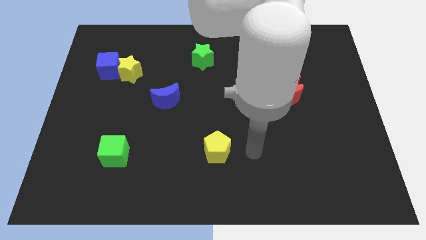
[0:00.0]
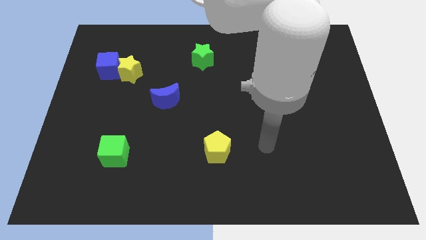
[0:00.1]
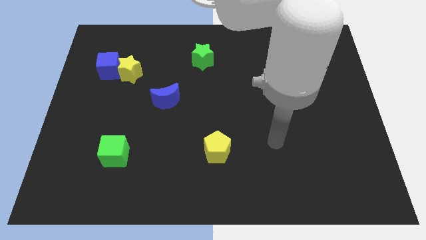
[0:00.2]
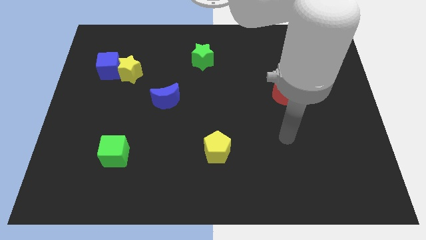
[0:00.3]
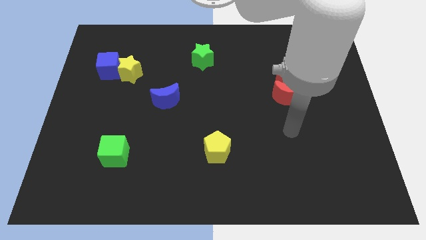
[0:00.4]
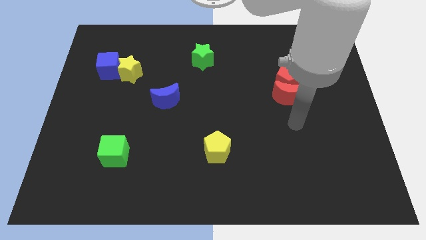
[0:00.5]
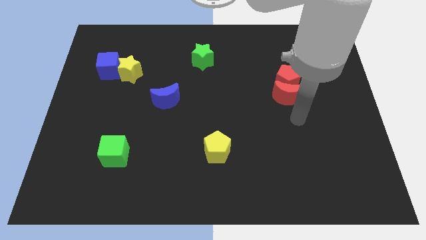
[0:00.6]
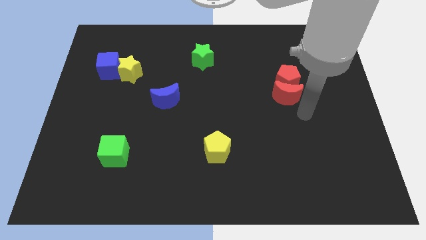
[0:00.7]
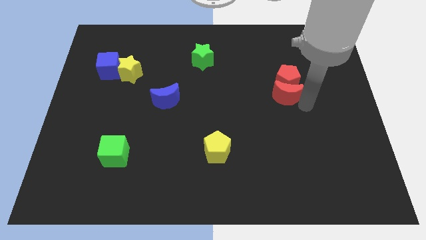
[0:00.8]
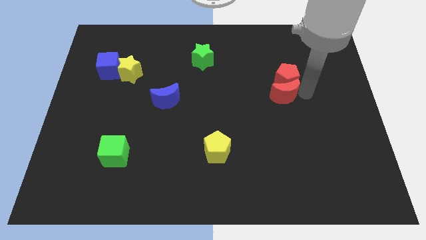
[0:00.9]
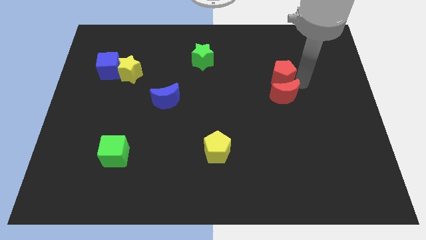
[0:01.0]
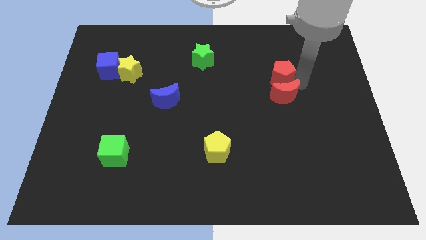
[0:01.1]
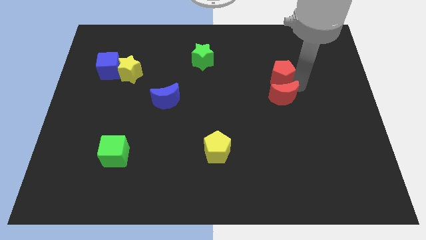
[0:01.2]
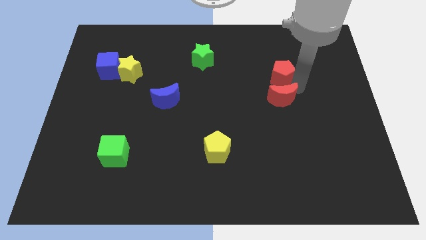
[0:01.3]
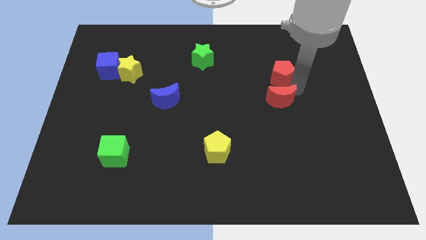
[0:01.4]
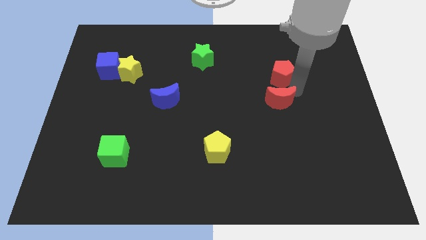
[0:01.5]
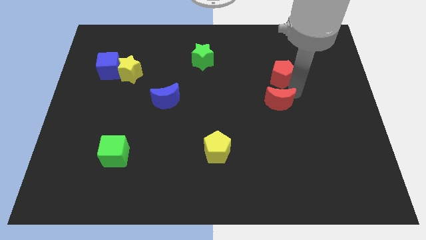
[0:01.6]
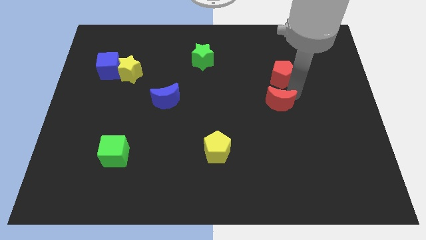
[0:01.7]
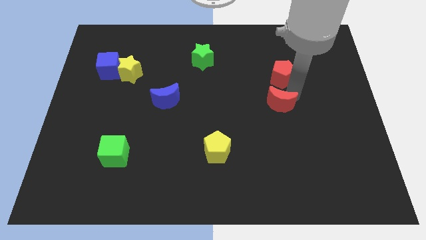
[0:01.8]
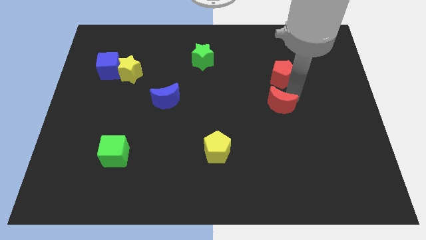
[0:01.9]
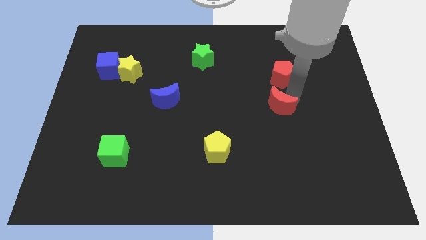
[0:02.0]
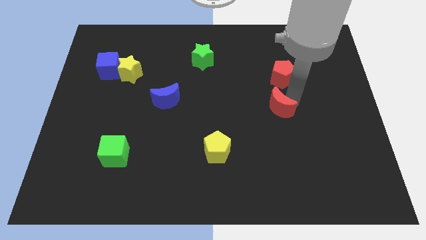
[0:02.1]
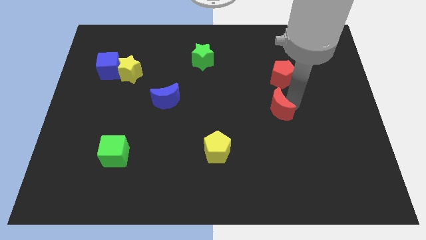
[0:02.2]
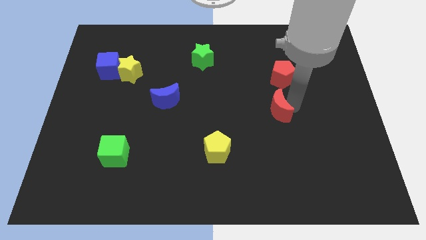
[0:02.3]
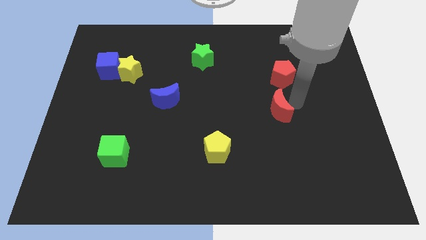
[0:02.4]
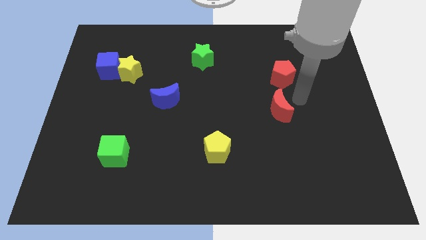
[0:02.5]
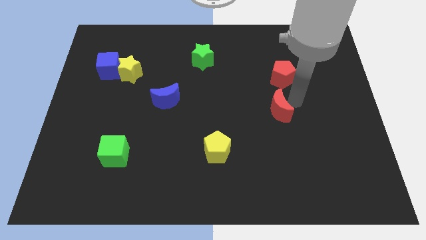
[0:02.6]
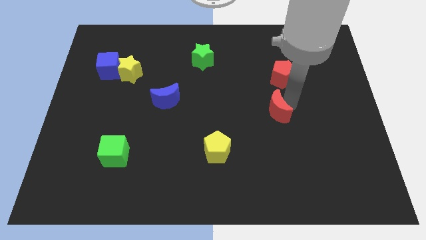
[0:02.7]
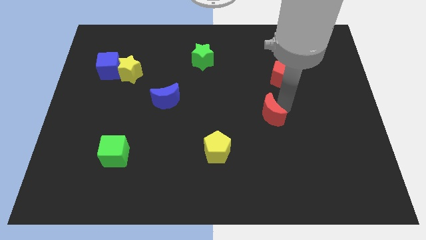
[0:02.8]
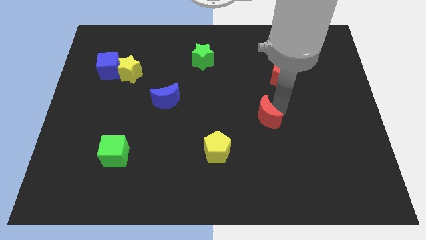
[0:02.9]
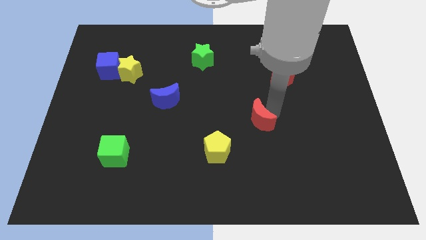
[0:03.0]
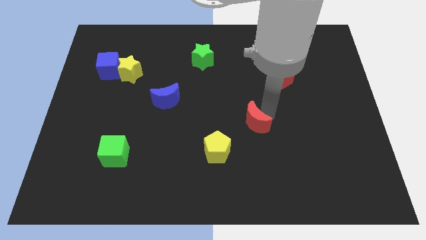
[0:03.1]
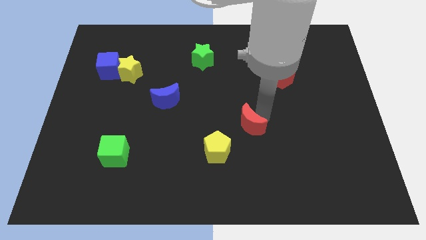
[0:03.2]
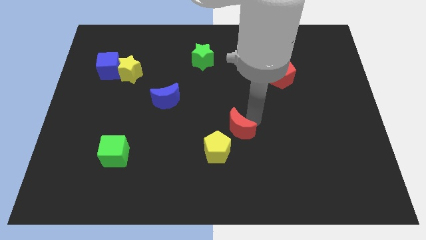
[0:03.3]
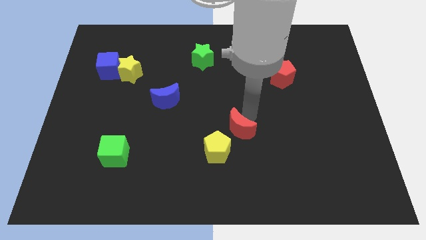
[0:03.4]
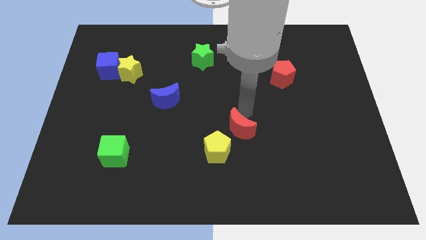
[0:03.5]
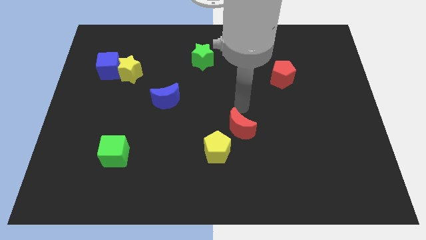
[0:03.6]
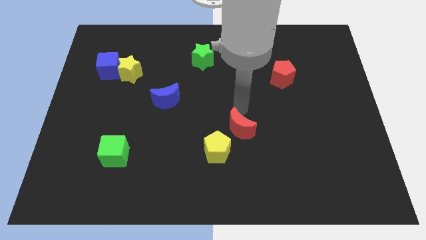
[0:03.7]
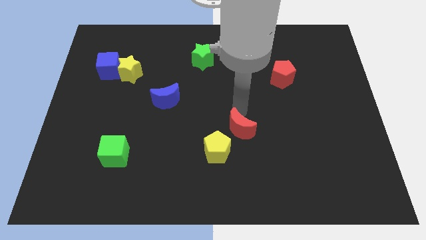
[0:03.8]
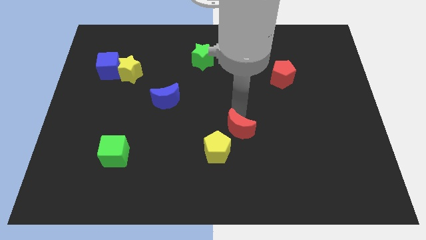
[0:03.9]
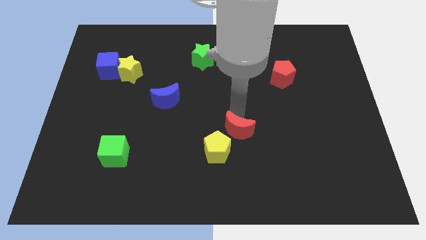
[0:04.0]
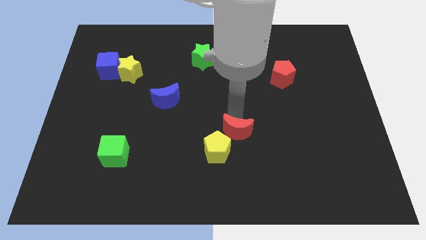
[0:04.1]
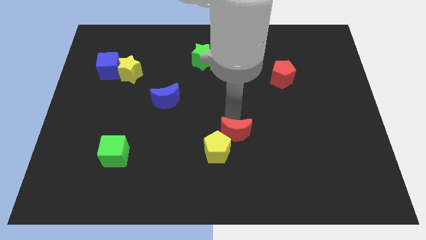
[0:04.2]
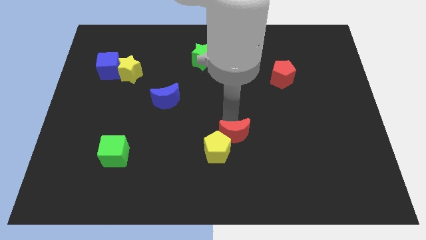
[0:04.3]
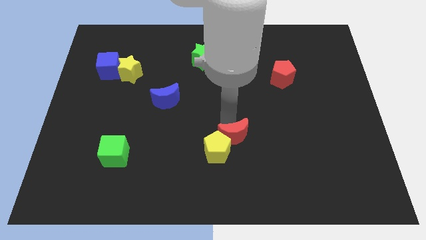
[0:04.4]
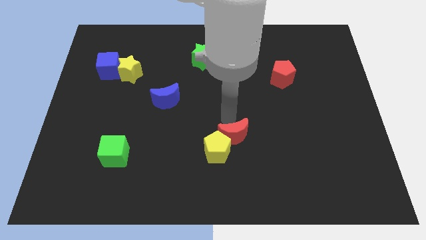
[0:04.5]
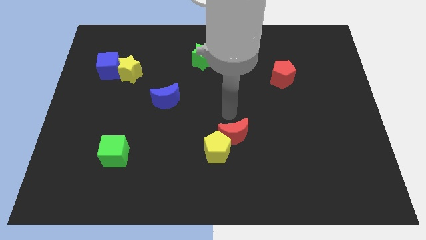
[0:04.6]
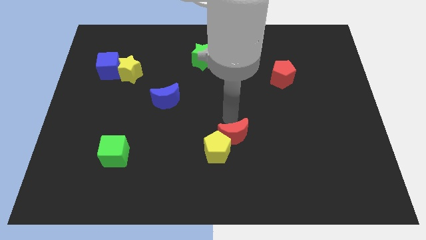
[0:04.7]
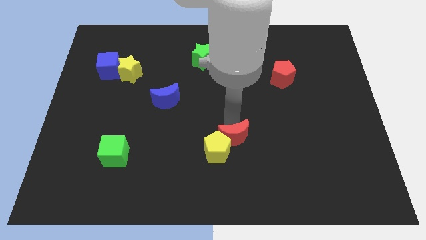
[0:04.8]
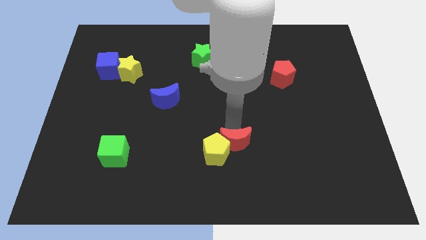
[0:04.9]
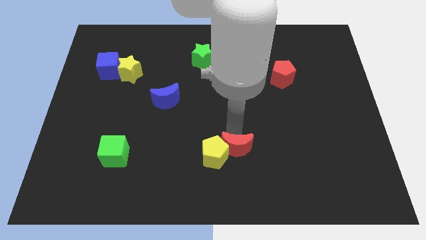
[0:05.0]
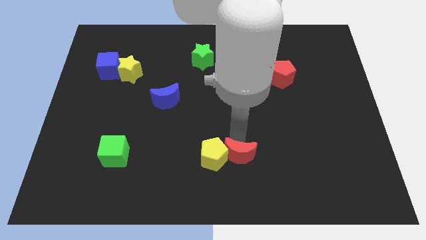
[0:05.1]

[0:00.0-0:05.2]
push the red moon down and to the left diagonally

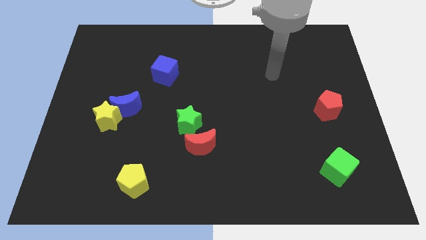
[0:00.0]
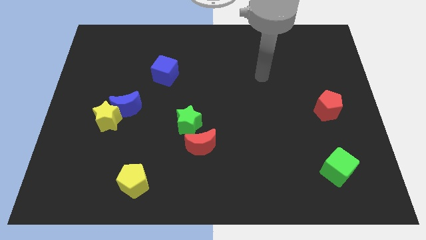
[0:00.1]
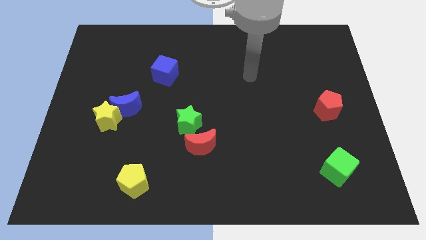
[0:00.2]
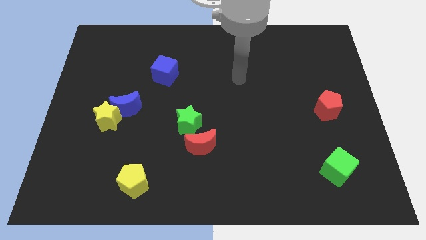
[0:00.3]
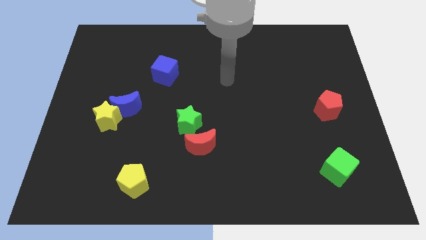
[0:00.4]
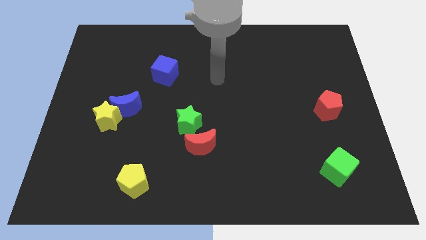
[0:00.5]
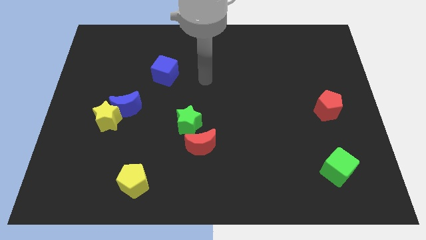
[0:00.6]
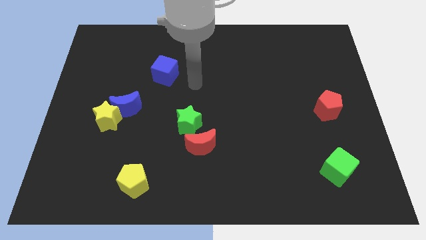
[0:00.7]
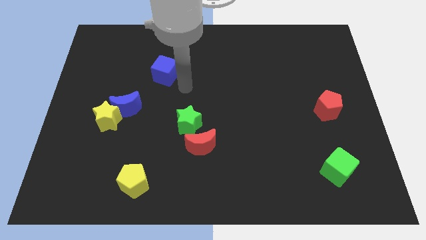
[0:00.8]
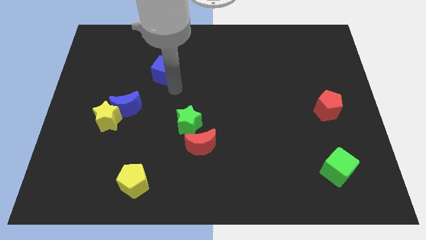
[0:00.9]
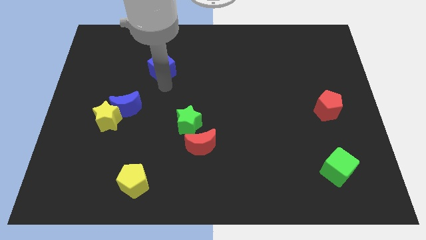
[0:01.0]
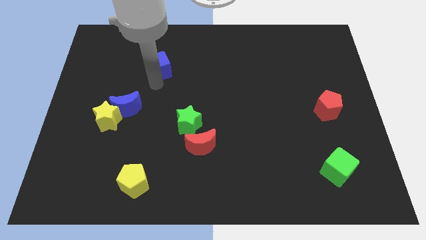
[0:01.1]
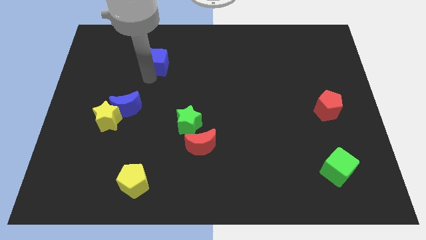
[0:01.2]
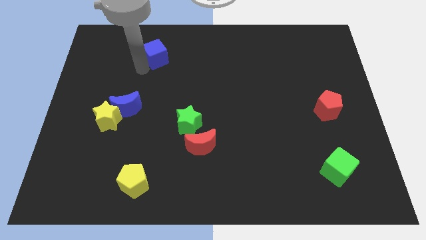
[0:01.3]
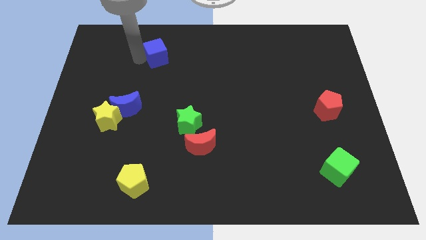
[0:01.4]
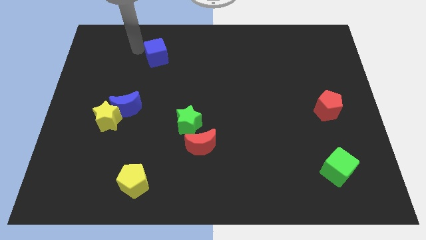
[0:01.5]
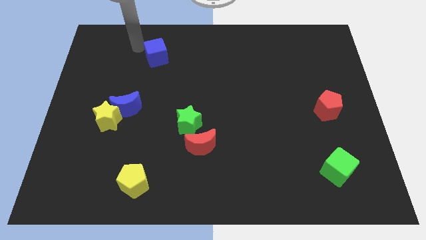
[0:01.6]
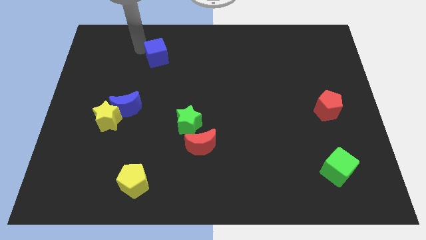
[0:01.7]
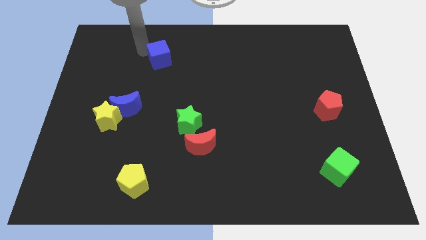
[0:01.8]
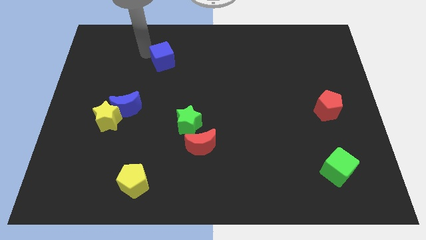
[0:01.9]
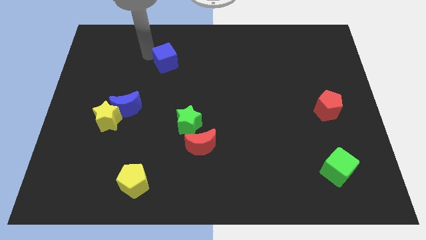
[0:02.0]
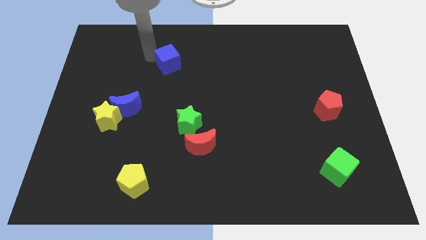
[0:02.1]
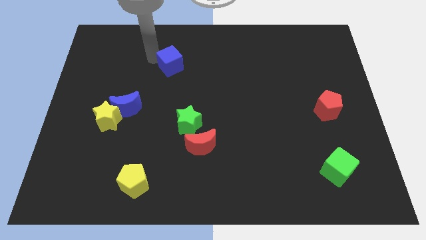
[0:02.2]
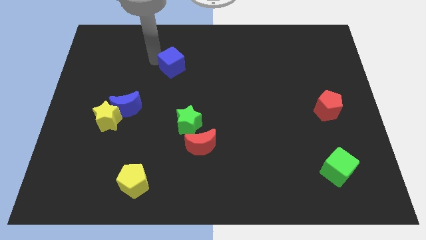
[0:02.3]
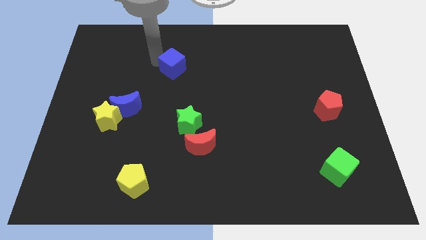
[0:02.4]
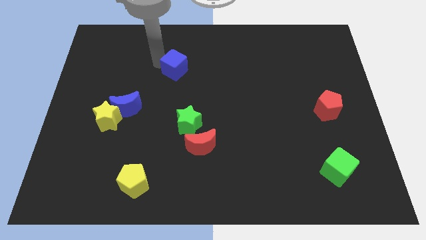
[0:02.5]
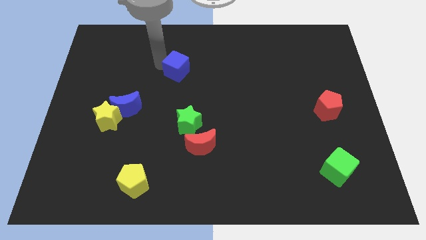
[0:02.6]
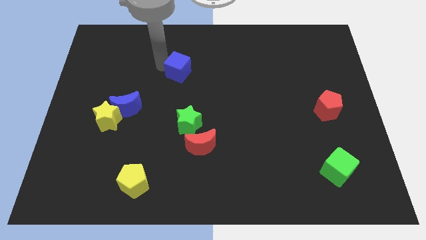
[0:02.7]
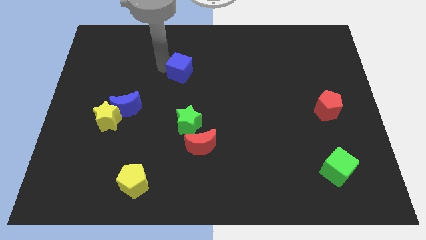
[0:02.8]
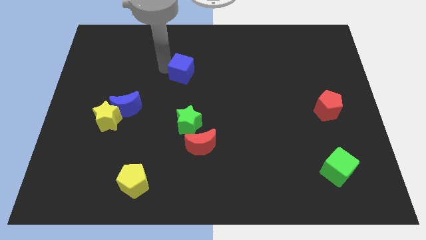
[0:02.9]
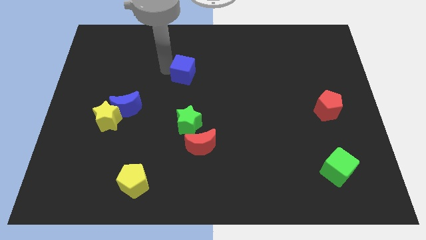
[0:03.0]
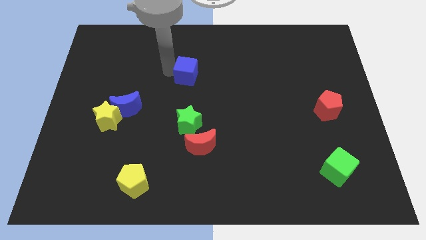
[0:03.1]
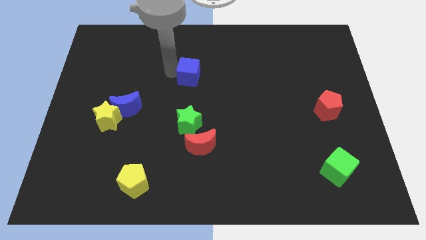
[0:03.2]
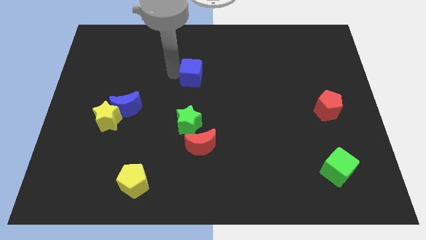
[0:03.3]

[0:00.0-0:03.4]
slide the blue cube to the right a little bit
